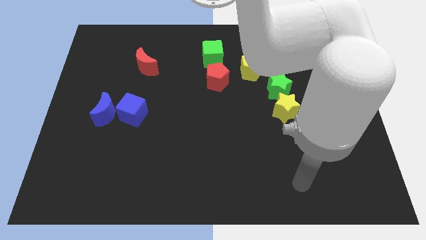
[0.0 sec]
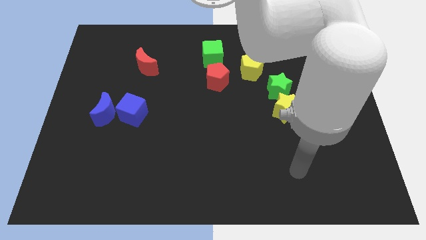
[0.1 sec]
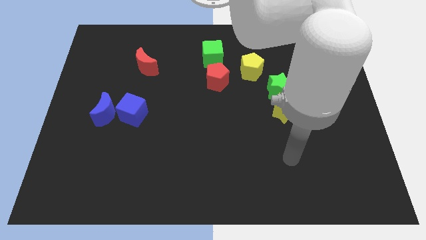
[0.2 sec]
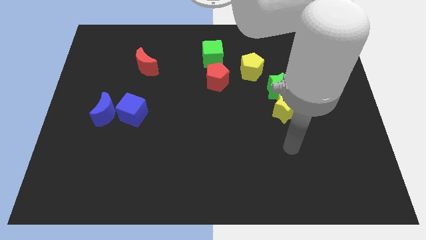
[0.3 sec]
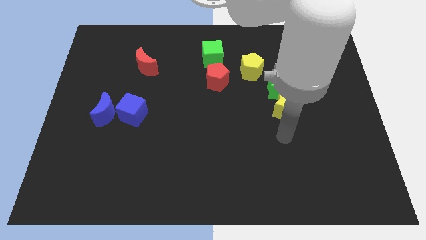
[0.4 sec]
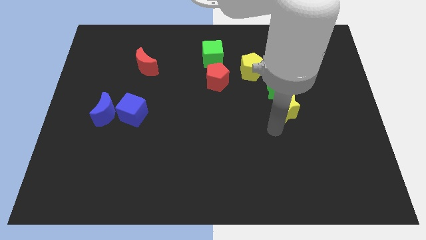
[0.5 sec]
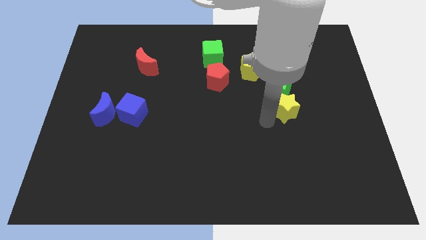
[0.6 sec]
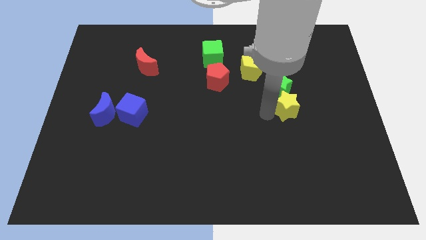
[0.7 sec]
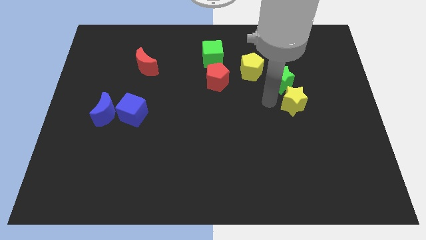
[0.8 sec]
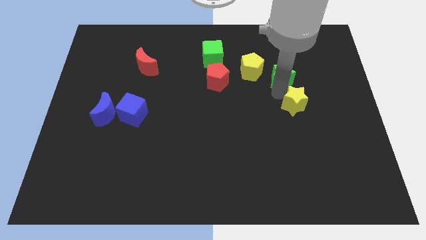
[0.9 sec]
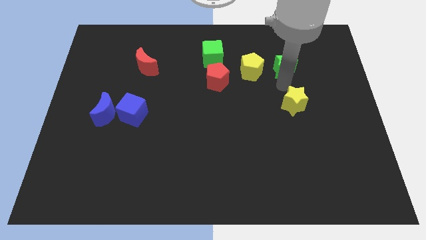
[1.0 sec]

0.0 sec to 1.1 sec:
move the yellow star away from the green star

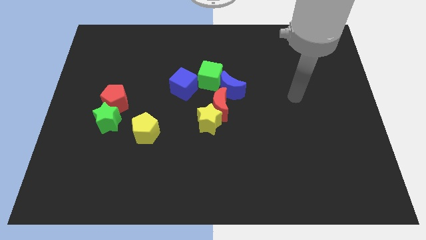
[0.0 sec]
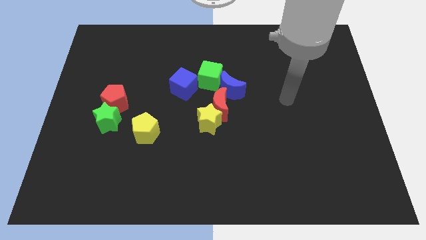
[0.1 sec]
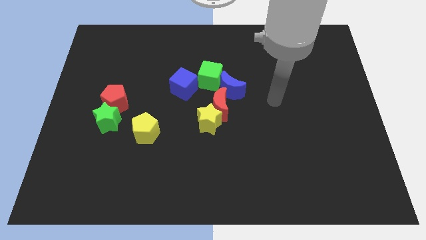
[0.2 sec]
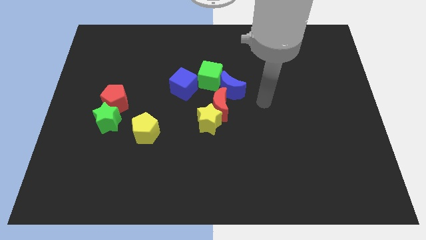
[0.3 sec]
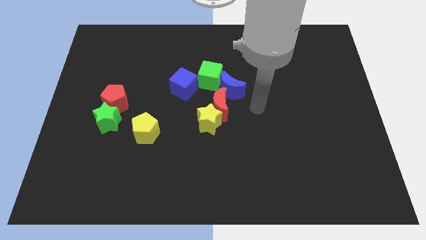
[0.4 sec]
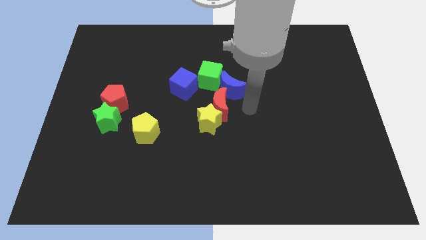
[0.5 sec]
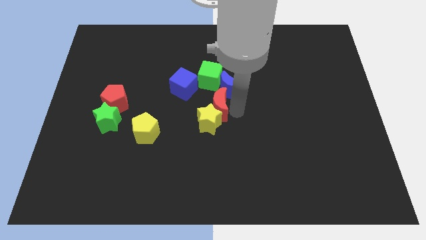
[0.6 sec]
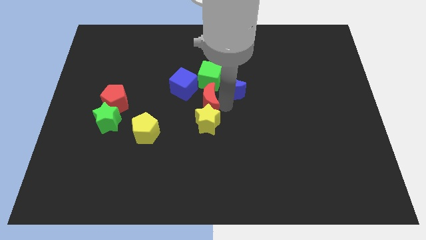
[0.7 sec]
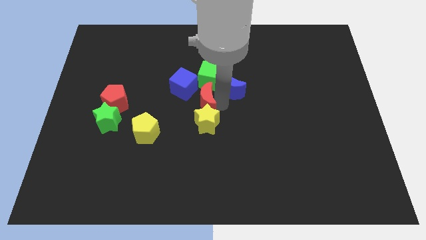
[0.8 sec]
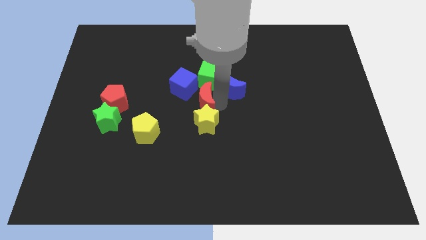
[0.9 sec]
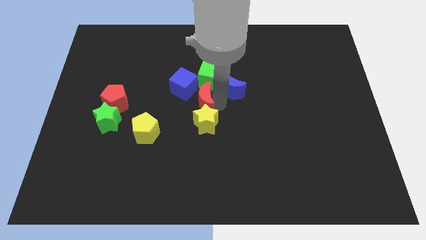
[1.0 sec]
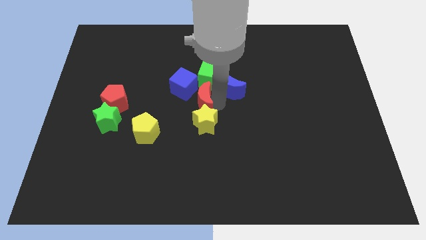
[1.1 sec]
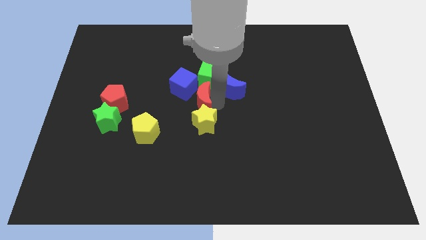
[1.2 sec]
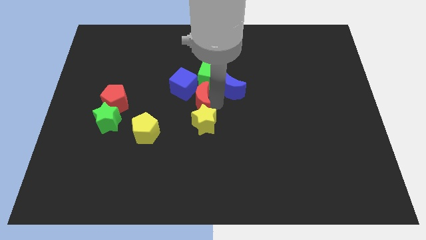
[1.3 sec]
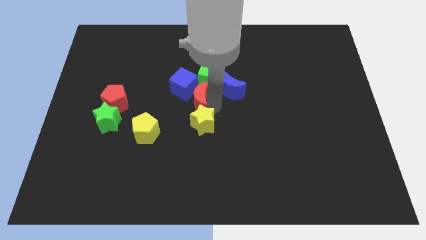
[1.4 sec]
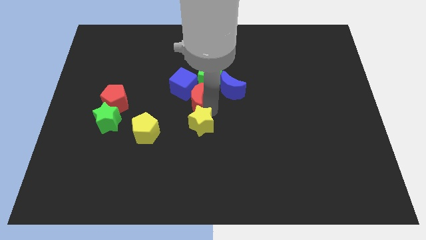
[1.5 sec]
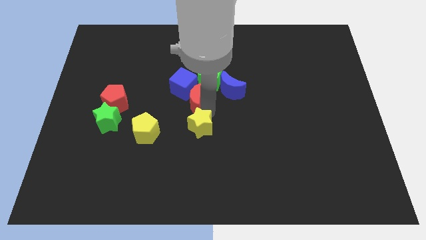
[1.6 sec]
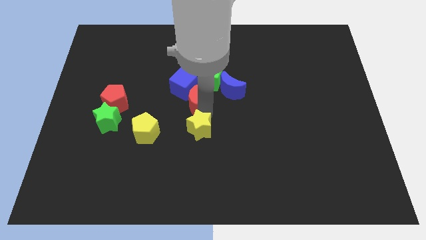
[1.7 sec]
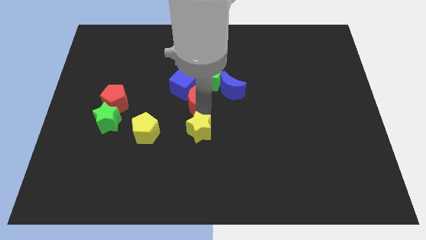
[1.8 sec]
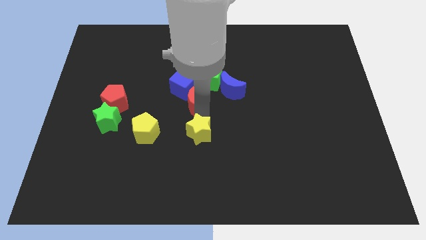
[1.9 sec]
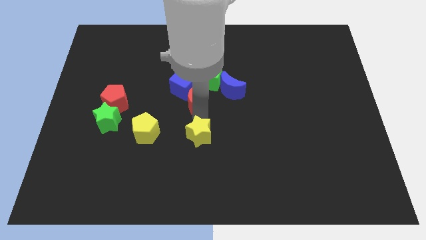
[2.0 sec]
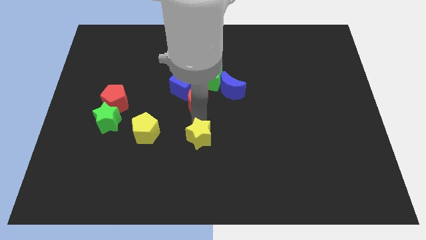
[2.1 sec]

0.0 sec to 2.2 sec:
move the yellow star away from the red moon

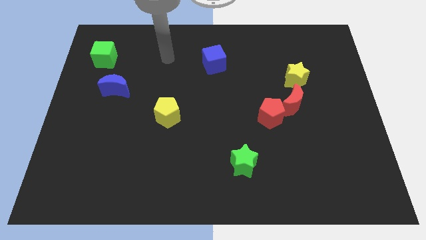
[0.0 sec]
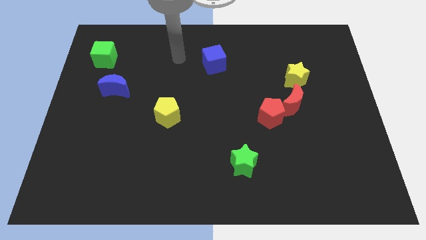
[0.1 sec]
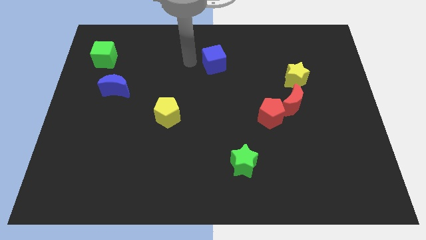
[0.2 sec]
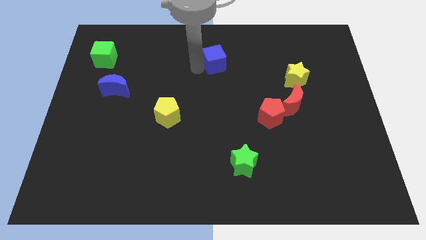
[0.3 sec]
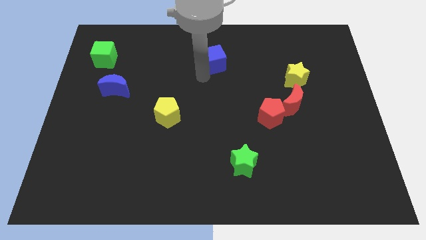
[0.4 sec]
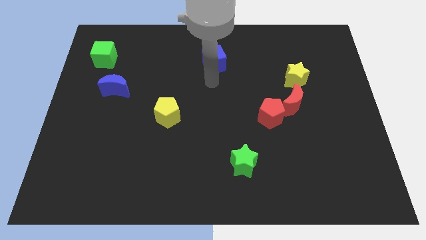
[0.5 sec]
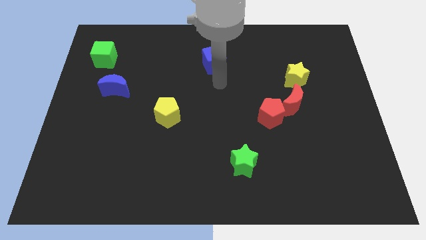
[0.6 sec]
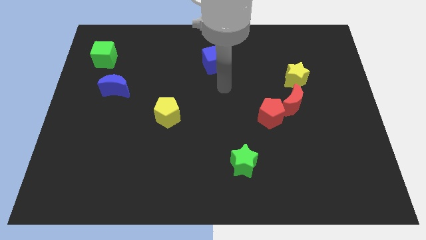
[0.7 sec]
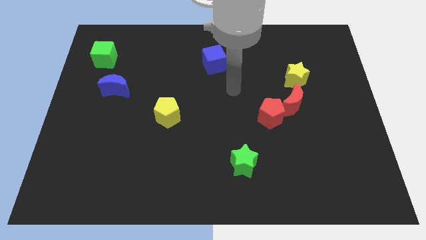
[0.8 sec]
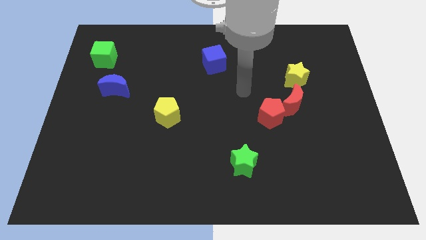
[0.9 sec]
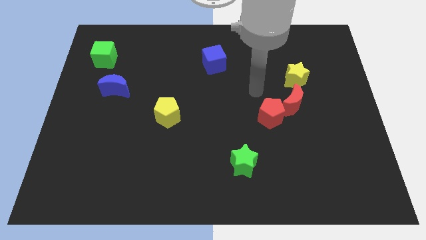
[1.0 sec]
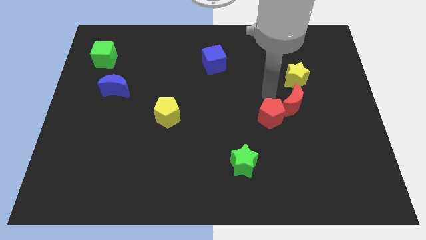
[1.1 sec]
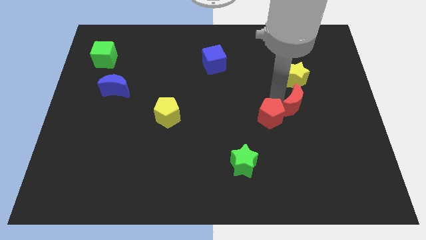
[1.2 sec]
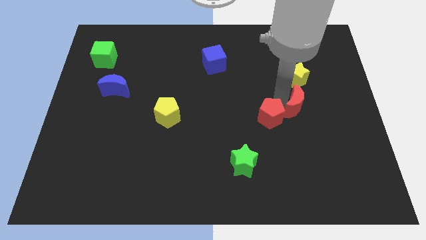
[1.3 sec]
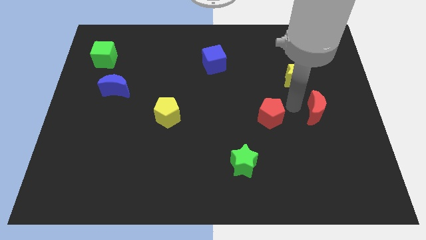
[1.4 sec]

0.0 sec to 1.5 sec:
move the red pentagon away from the red moon

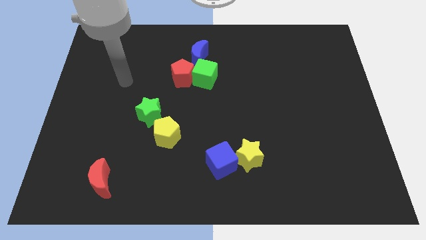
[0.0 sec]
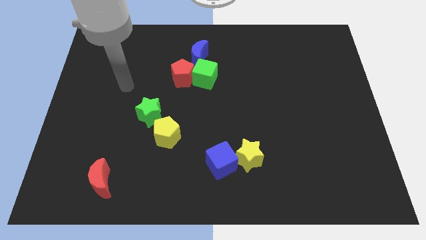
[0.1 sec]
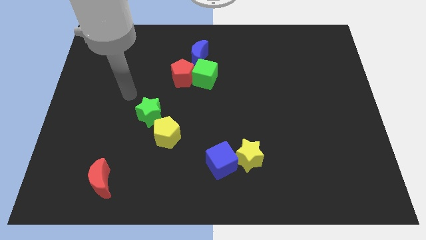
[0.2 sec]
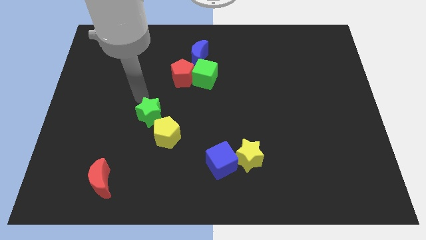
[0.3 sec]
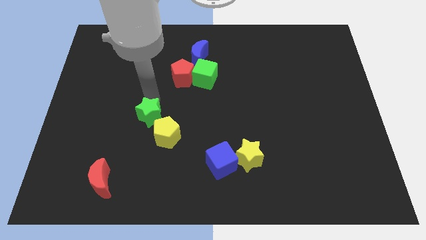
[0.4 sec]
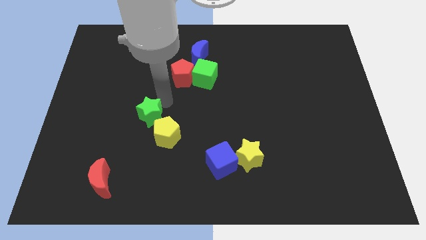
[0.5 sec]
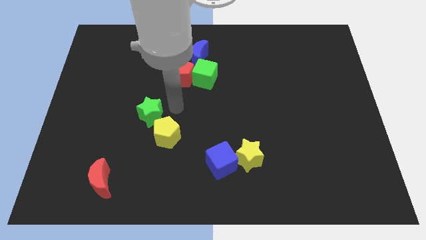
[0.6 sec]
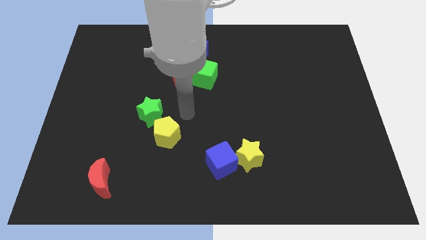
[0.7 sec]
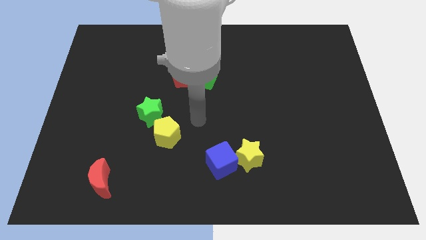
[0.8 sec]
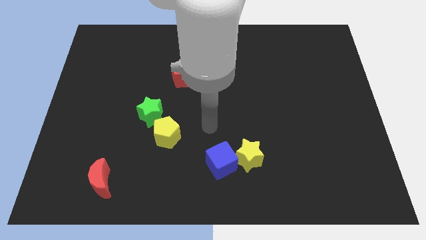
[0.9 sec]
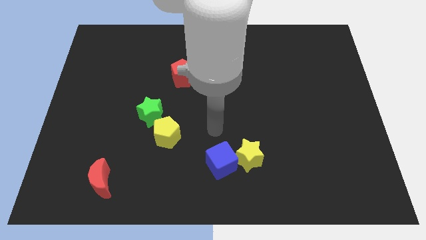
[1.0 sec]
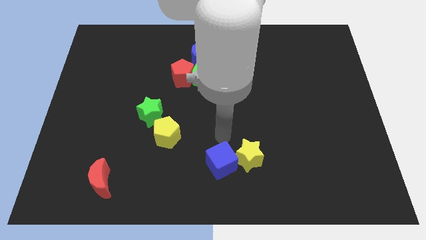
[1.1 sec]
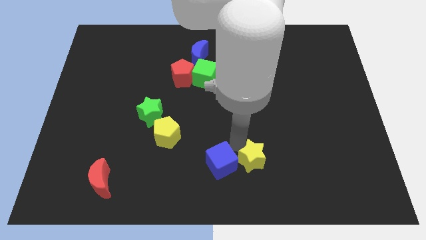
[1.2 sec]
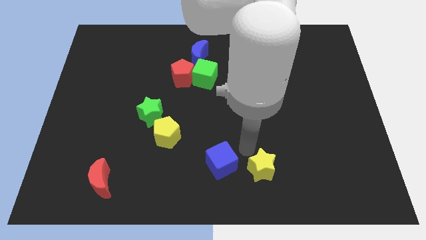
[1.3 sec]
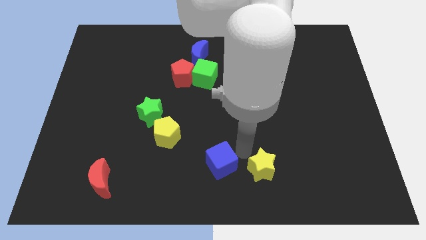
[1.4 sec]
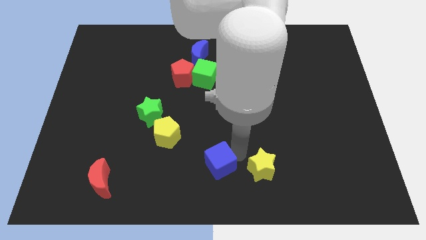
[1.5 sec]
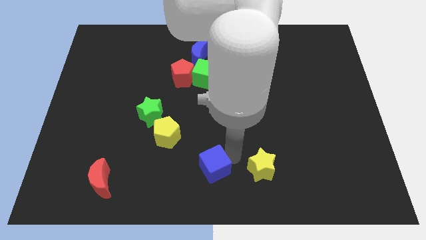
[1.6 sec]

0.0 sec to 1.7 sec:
move the blue cube away from the yellow star

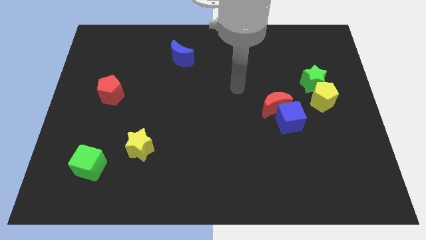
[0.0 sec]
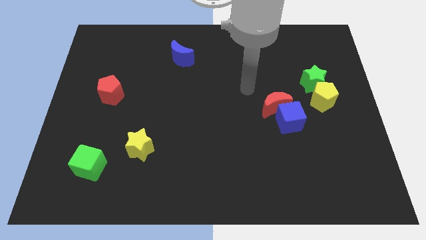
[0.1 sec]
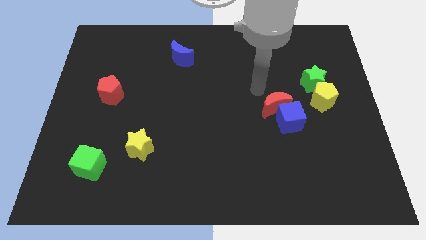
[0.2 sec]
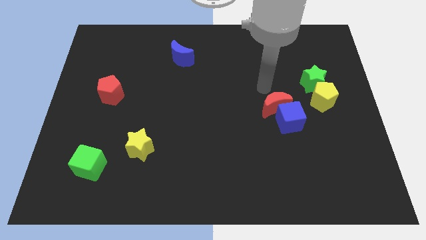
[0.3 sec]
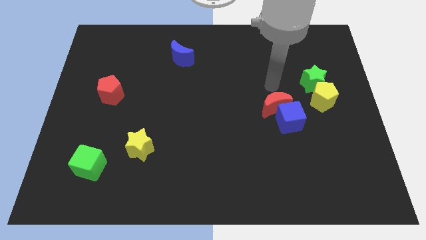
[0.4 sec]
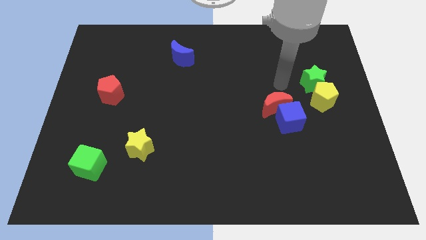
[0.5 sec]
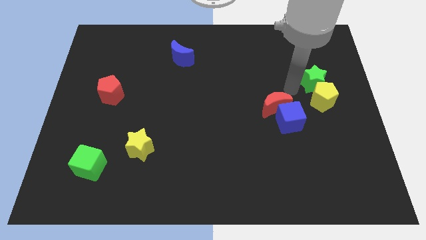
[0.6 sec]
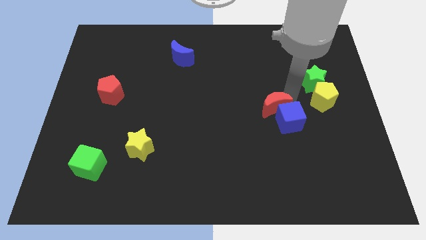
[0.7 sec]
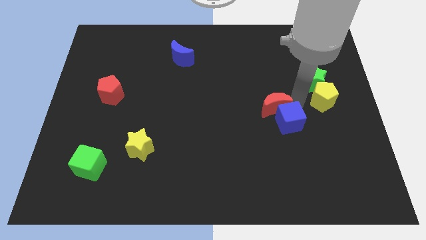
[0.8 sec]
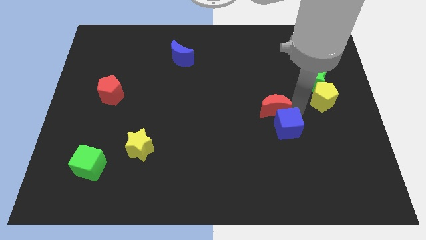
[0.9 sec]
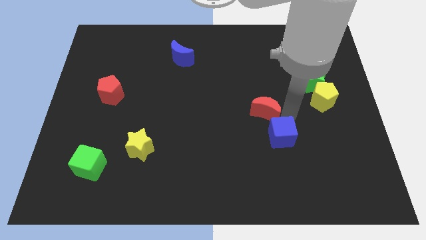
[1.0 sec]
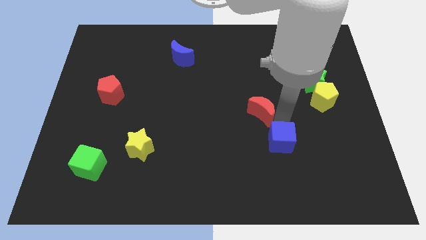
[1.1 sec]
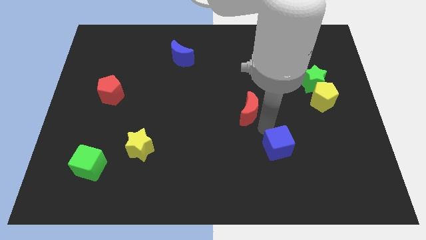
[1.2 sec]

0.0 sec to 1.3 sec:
move the red moon away from the blue cube

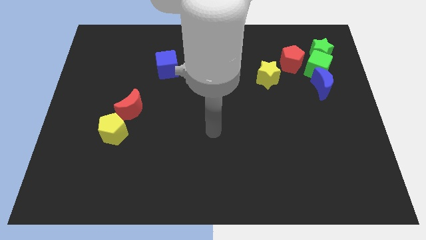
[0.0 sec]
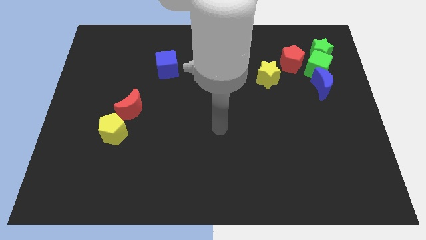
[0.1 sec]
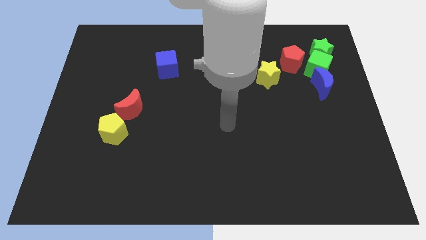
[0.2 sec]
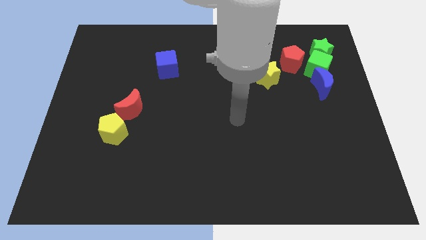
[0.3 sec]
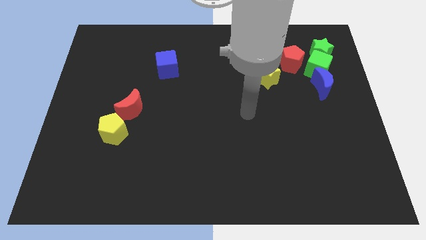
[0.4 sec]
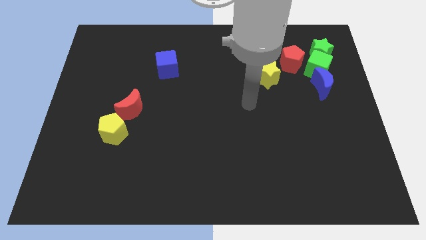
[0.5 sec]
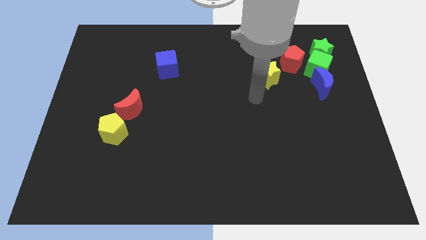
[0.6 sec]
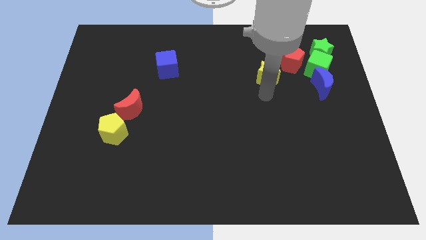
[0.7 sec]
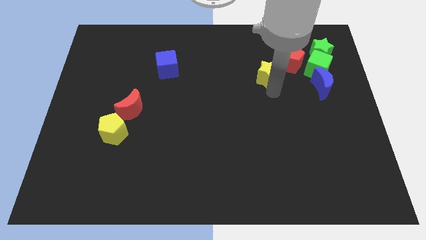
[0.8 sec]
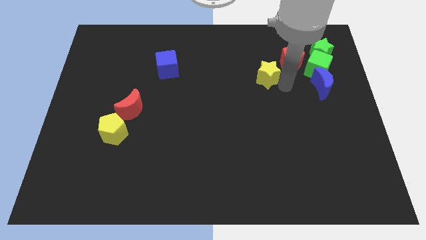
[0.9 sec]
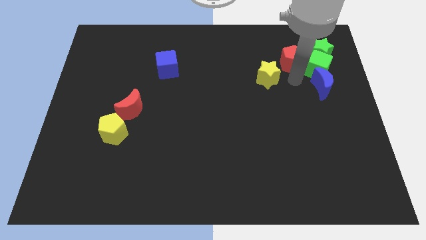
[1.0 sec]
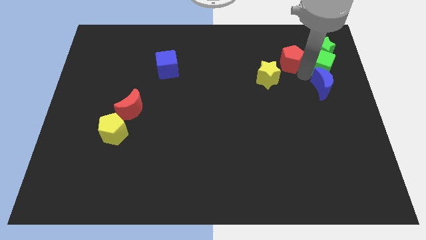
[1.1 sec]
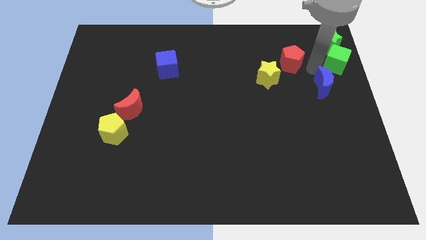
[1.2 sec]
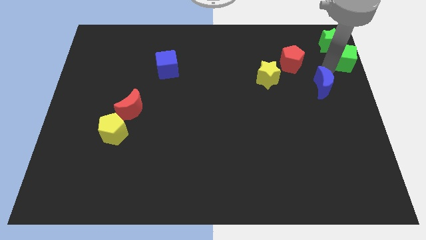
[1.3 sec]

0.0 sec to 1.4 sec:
move the blue moon away from the green cube

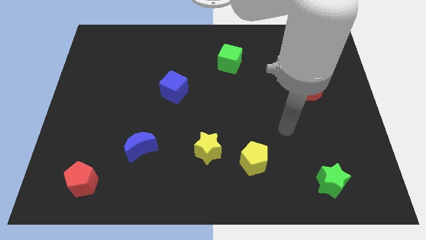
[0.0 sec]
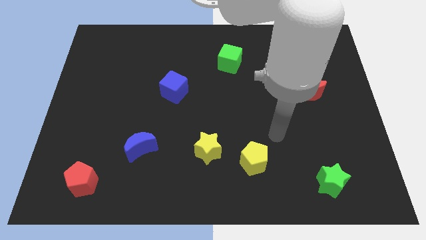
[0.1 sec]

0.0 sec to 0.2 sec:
move the yellow star away from the yellow pentagon
